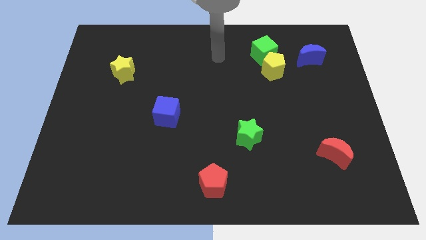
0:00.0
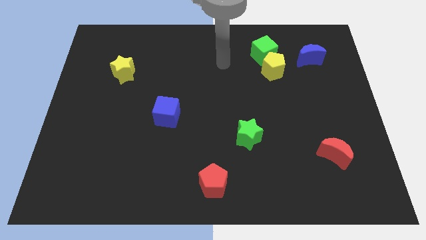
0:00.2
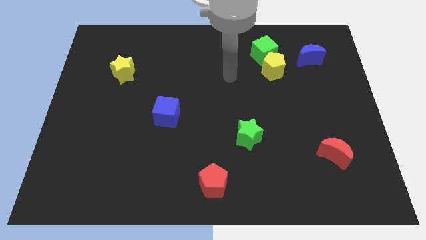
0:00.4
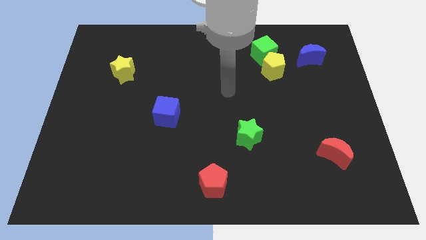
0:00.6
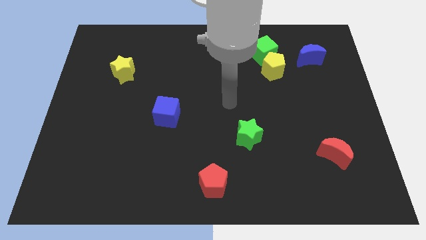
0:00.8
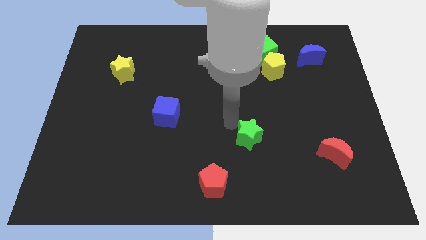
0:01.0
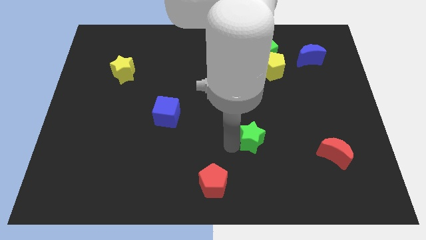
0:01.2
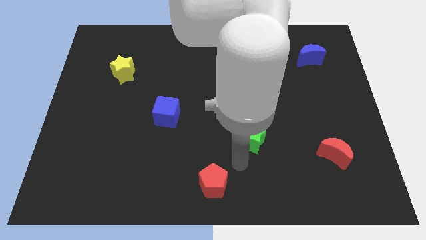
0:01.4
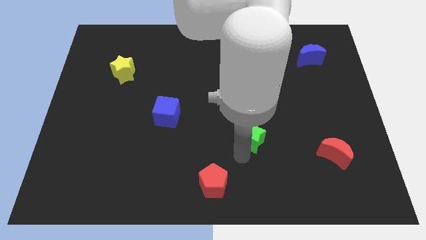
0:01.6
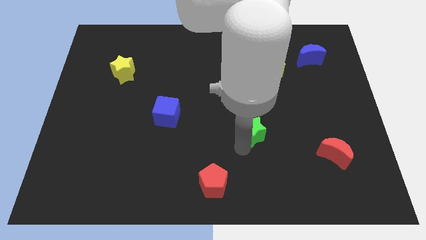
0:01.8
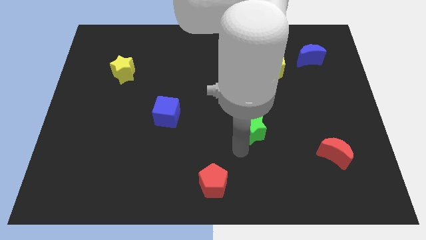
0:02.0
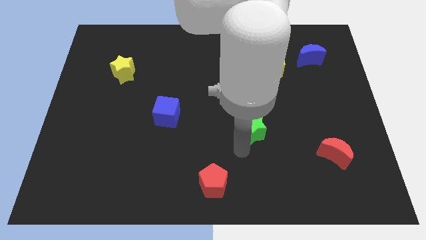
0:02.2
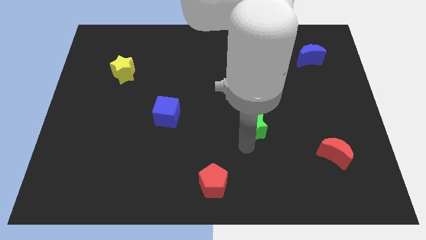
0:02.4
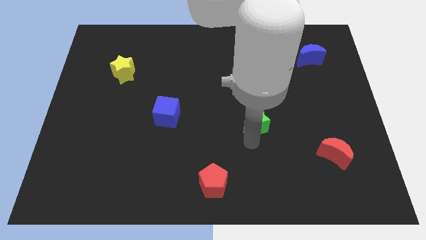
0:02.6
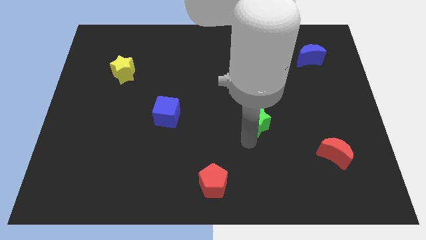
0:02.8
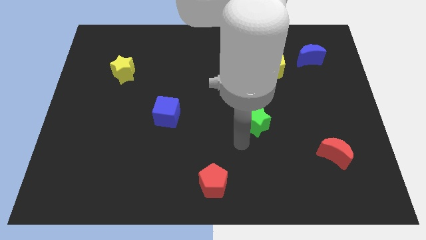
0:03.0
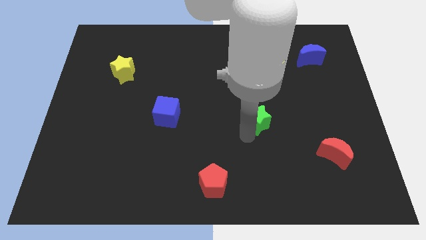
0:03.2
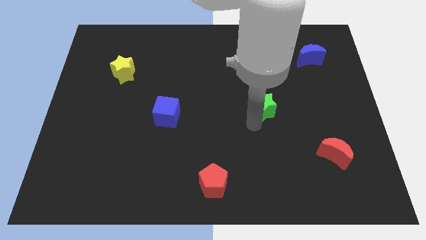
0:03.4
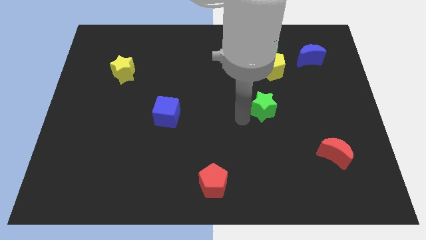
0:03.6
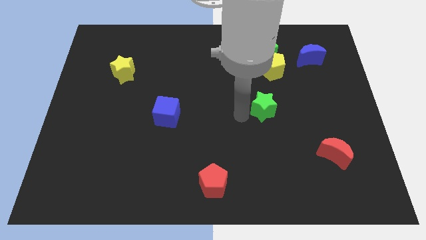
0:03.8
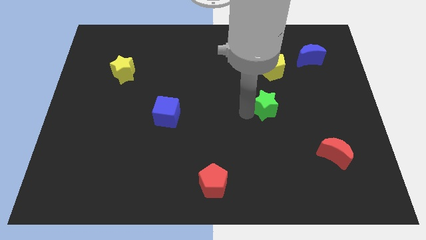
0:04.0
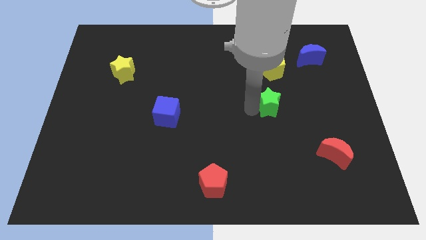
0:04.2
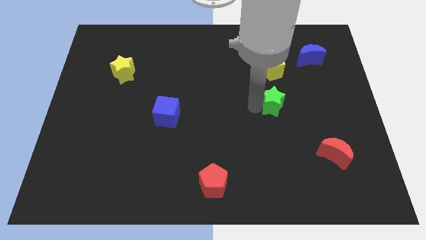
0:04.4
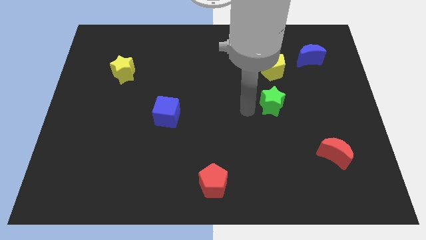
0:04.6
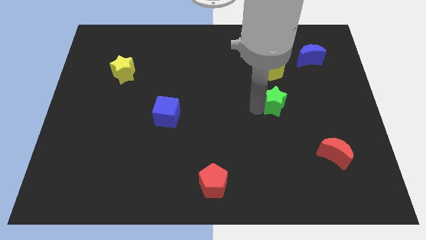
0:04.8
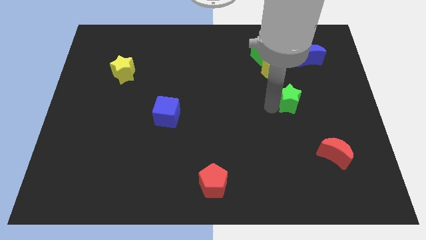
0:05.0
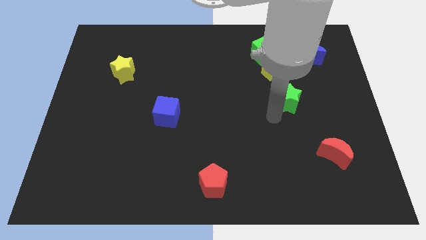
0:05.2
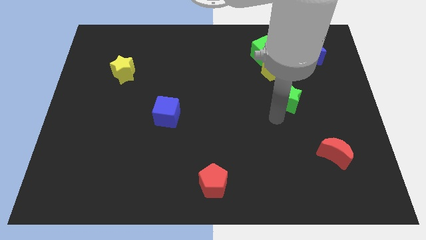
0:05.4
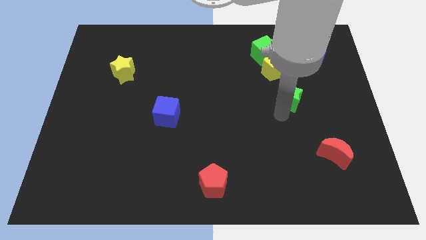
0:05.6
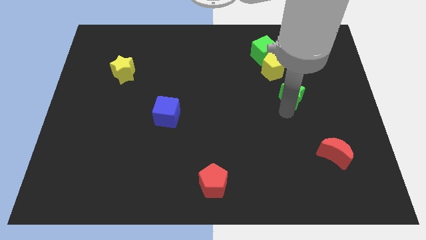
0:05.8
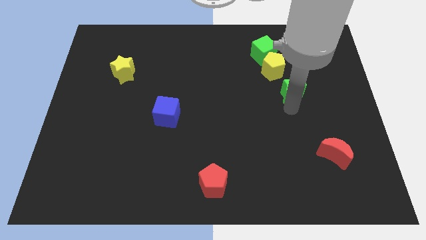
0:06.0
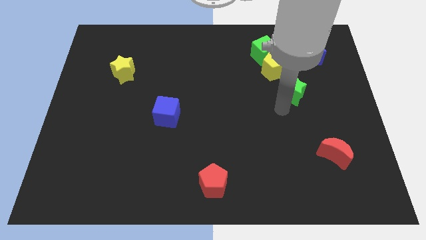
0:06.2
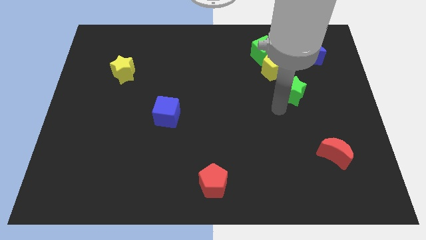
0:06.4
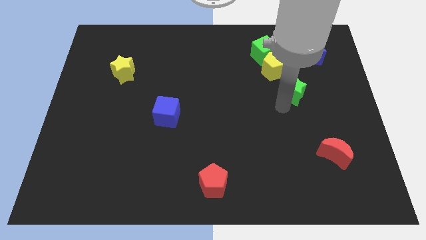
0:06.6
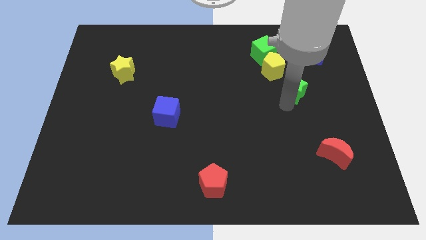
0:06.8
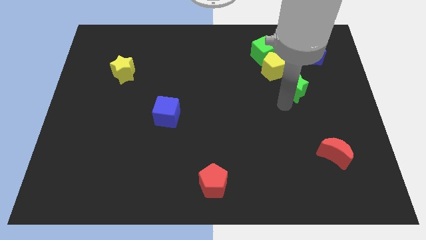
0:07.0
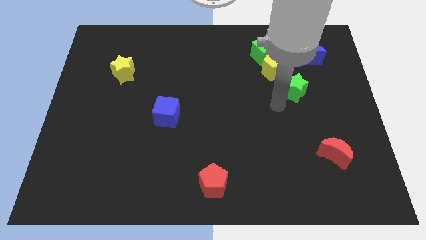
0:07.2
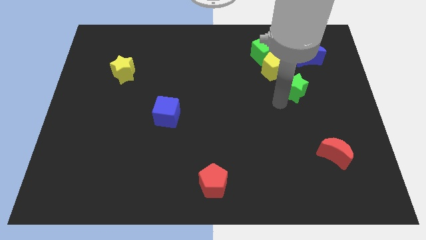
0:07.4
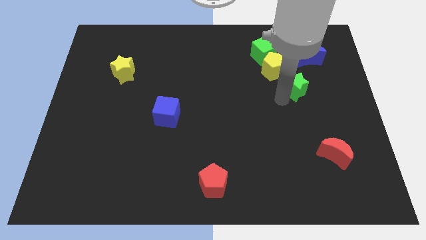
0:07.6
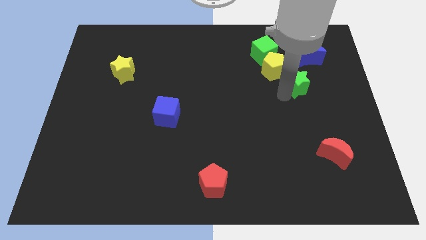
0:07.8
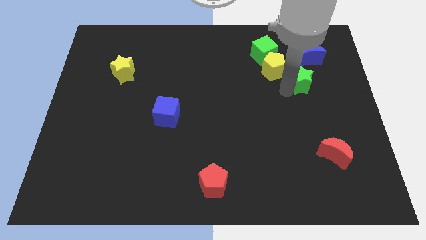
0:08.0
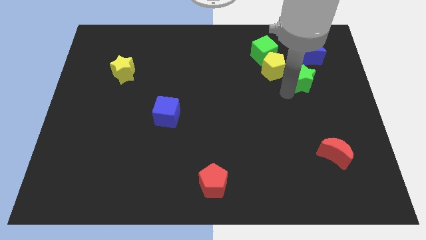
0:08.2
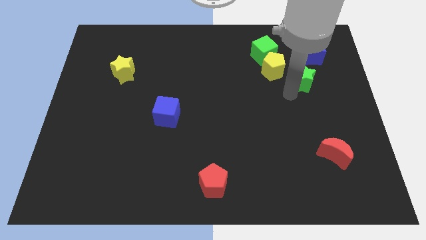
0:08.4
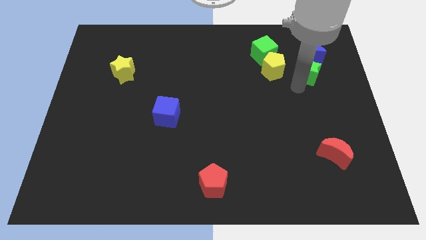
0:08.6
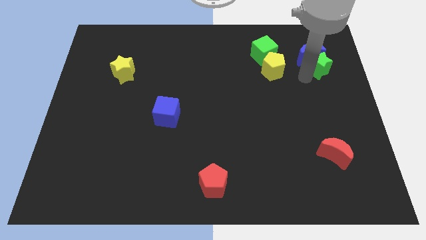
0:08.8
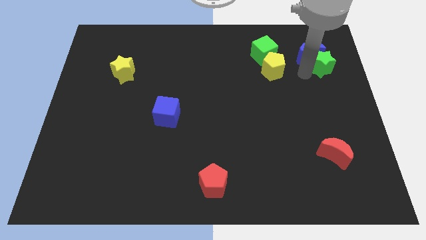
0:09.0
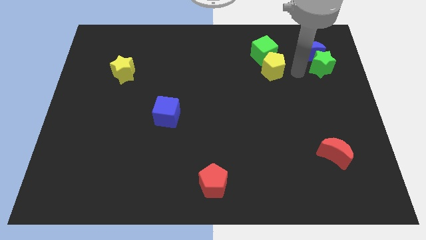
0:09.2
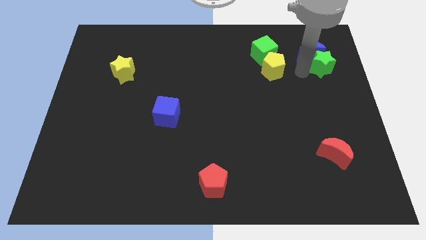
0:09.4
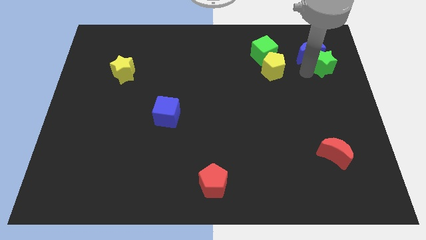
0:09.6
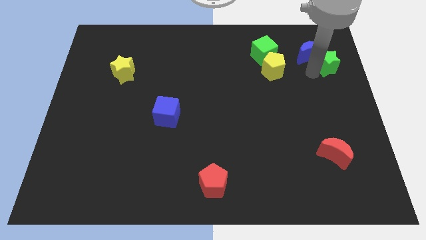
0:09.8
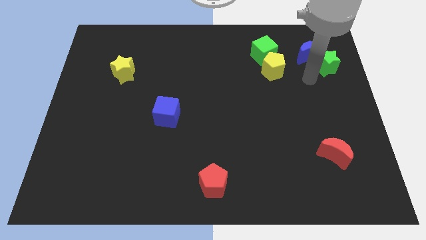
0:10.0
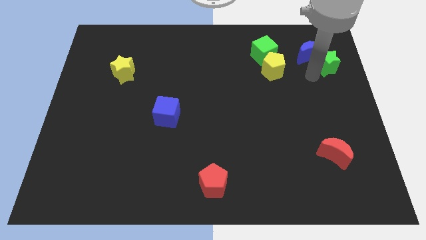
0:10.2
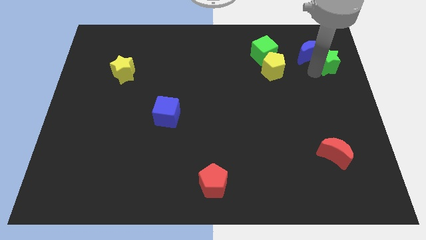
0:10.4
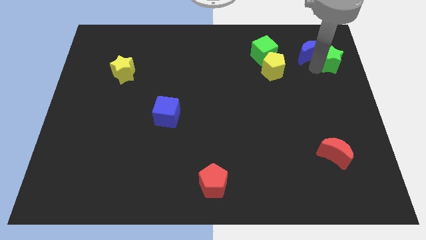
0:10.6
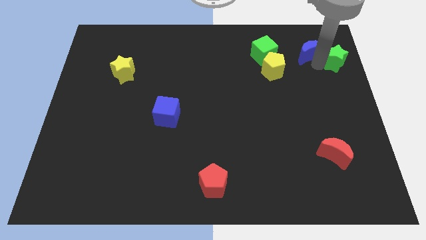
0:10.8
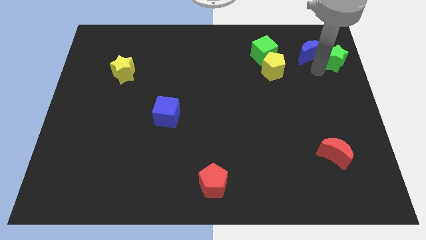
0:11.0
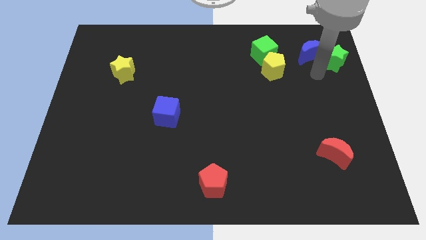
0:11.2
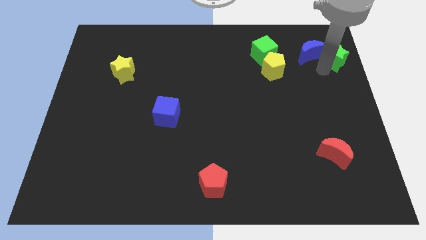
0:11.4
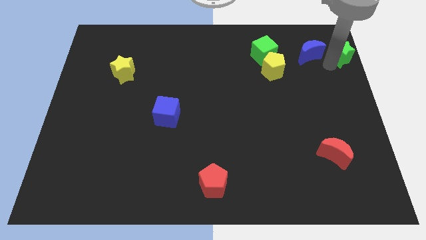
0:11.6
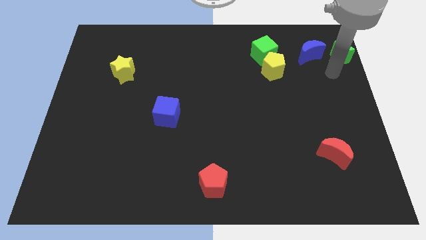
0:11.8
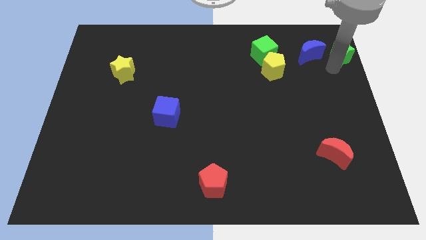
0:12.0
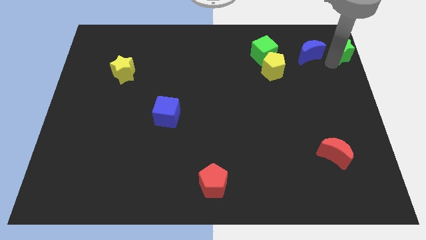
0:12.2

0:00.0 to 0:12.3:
move the green star to the top right

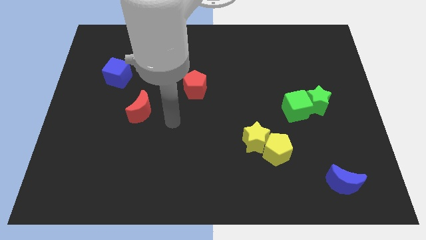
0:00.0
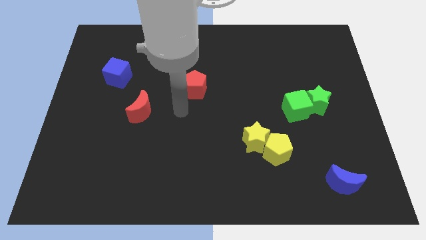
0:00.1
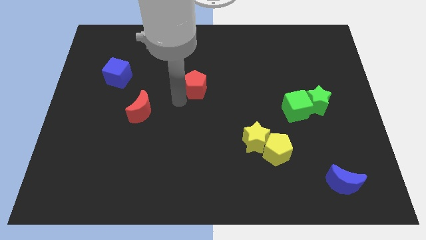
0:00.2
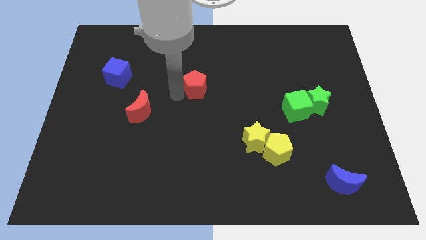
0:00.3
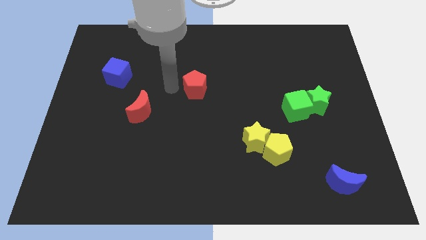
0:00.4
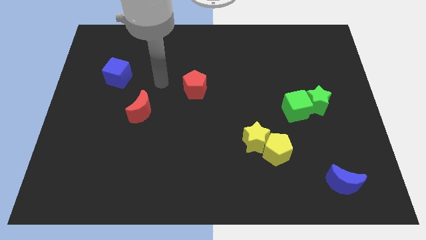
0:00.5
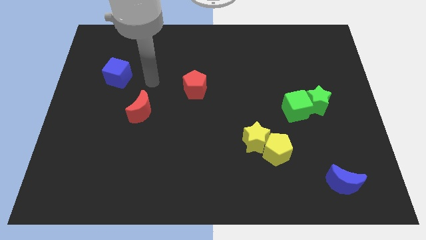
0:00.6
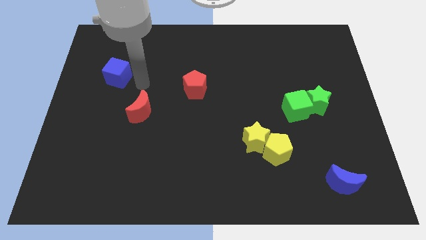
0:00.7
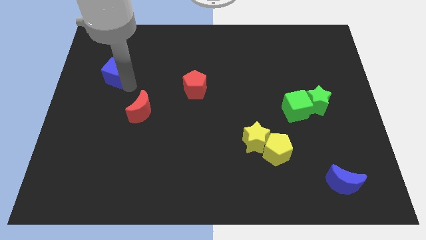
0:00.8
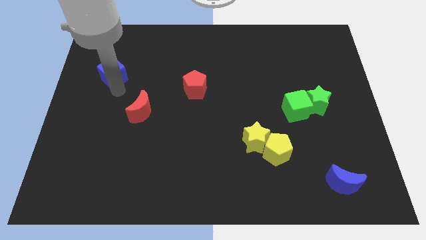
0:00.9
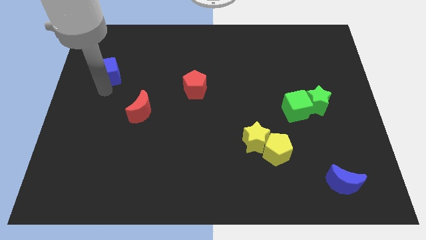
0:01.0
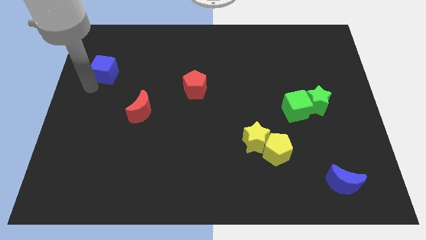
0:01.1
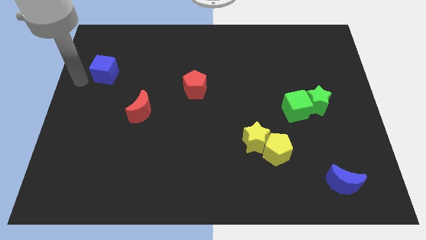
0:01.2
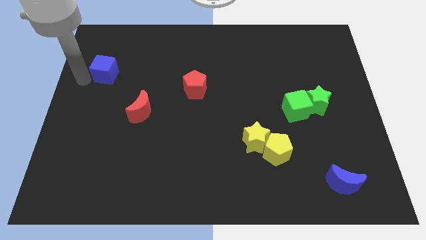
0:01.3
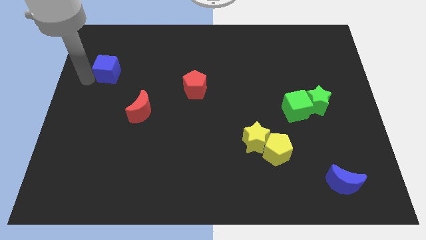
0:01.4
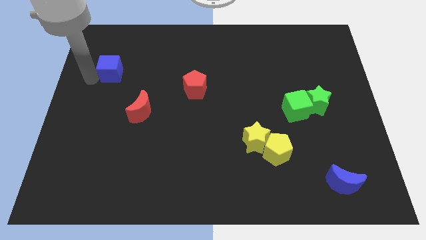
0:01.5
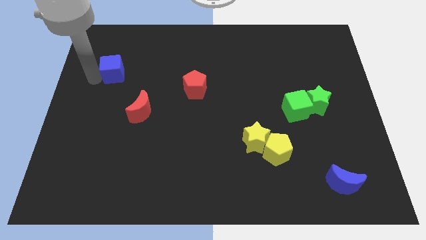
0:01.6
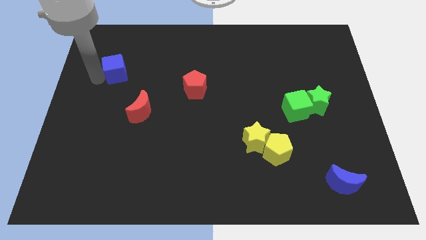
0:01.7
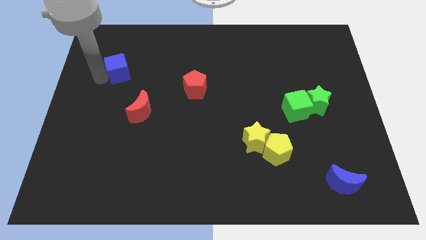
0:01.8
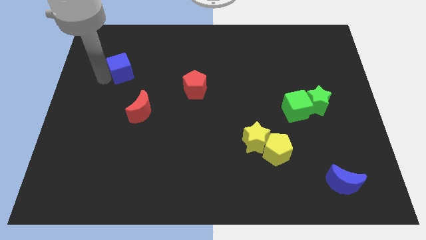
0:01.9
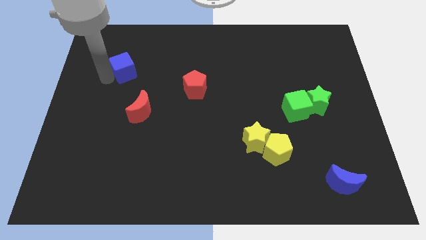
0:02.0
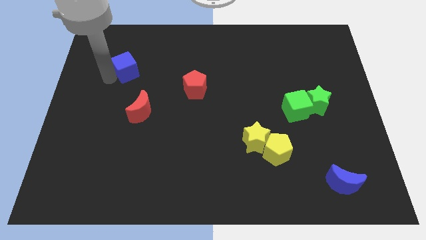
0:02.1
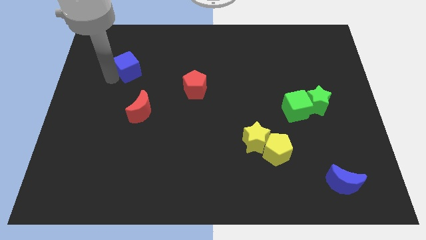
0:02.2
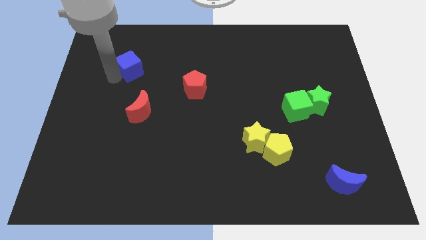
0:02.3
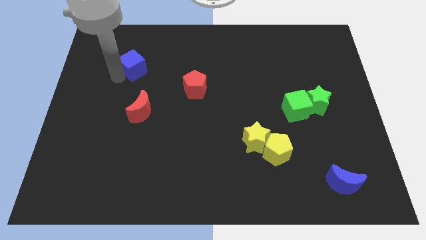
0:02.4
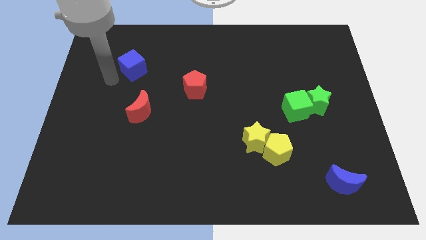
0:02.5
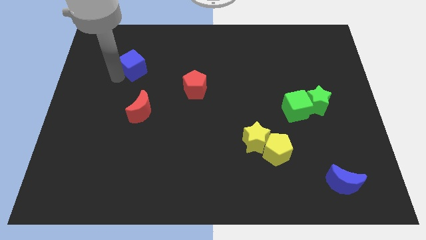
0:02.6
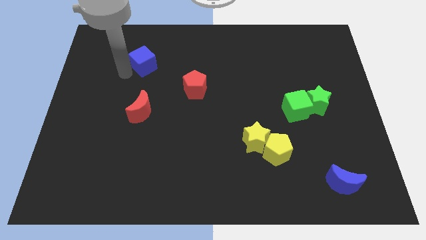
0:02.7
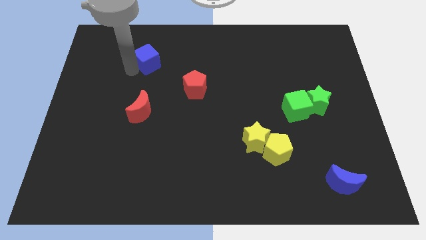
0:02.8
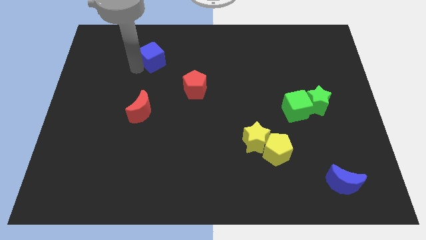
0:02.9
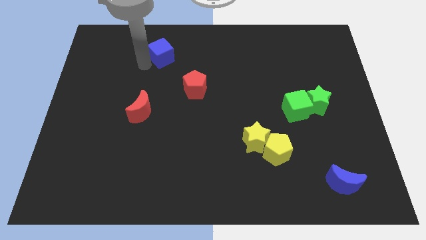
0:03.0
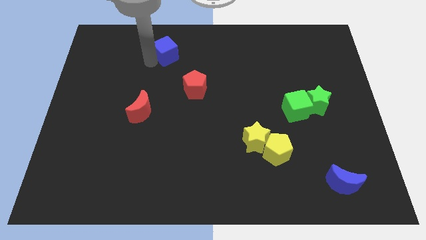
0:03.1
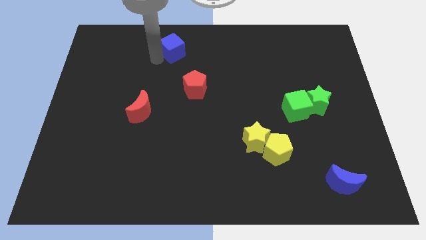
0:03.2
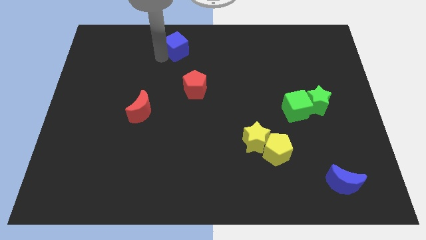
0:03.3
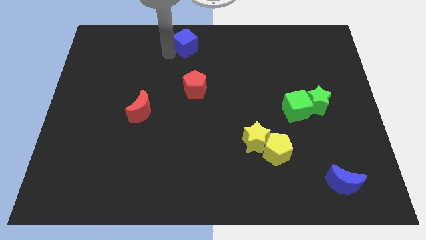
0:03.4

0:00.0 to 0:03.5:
slide the blue cube to the top
